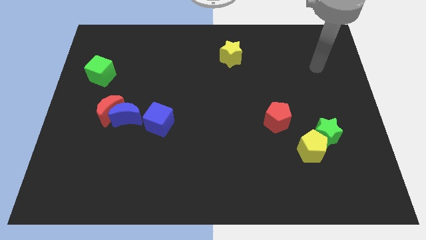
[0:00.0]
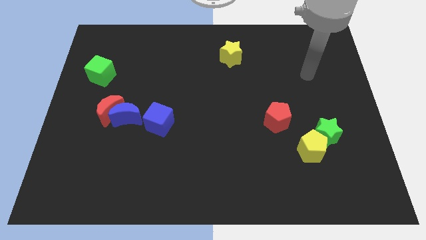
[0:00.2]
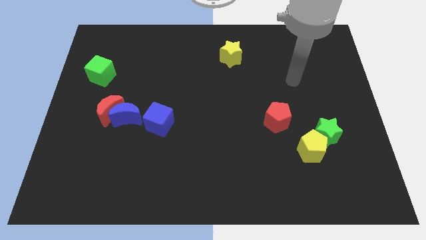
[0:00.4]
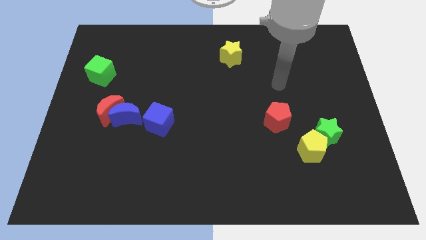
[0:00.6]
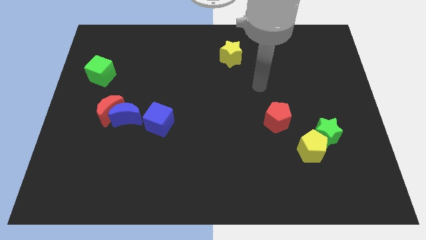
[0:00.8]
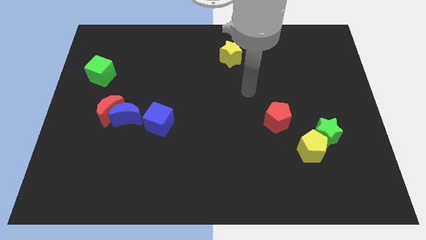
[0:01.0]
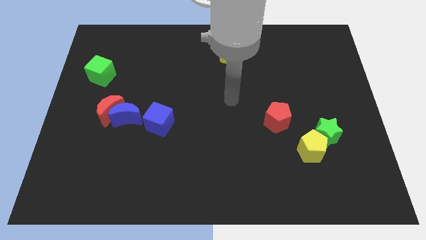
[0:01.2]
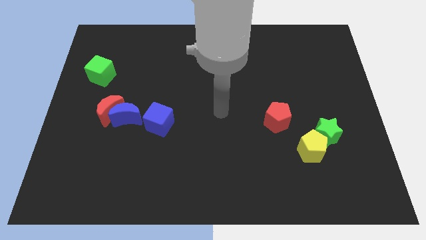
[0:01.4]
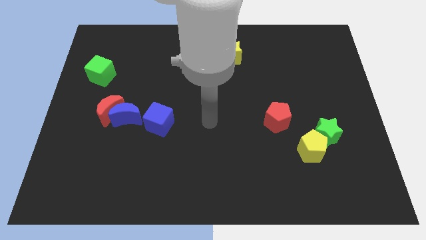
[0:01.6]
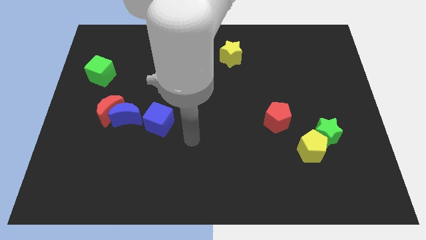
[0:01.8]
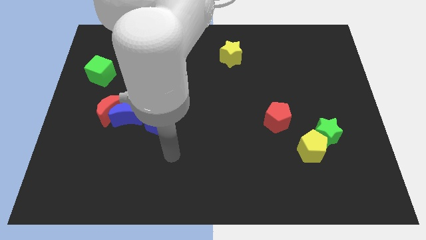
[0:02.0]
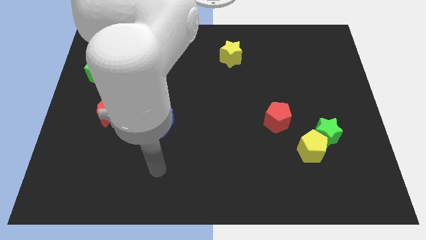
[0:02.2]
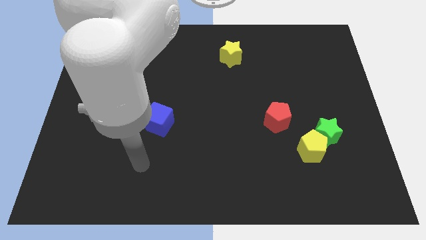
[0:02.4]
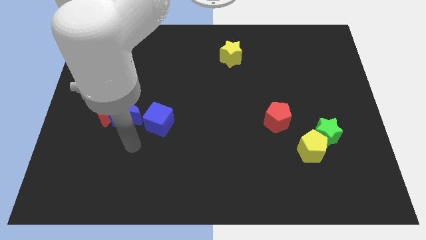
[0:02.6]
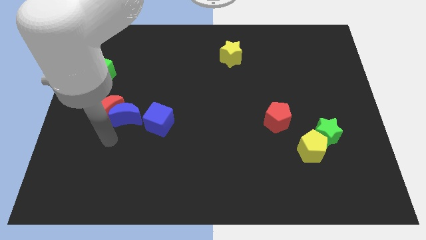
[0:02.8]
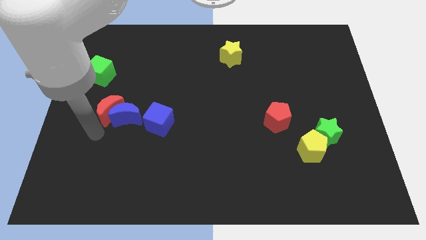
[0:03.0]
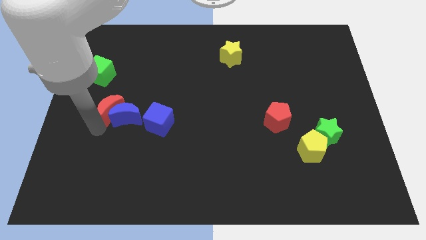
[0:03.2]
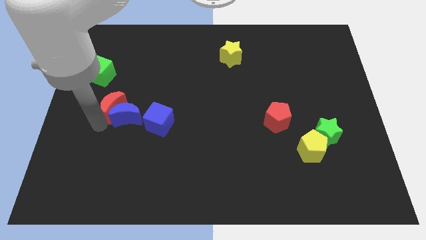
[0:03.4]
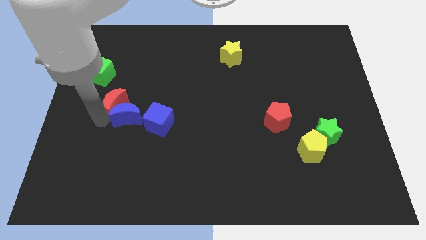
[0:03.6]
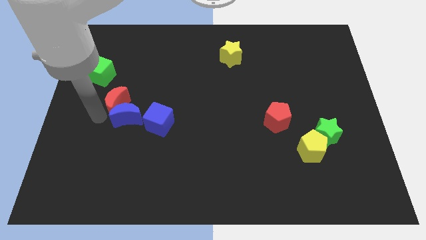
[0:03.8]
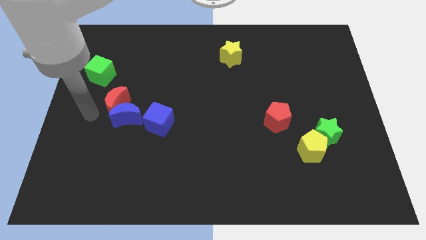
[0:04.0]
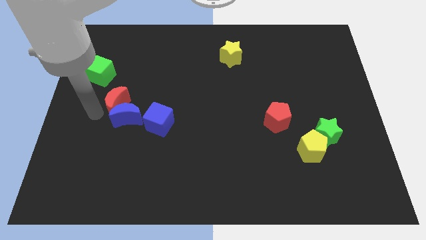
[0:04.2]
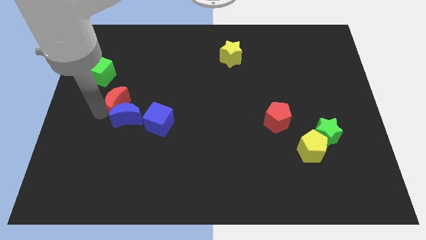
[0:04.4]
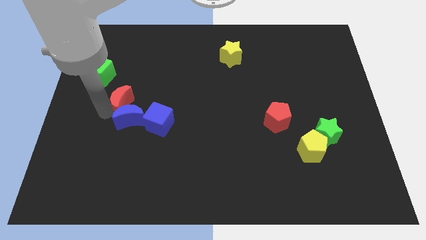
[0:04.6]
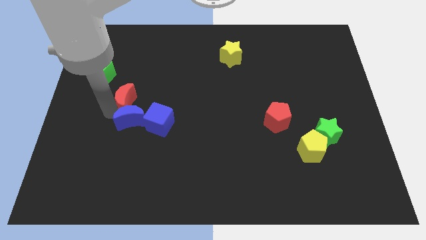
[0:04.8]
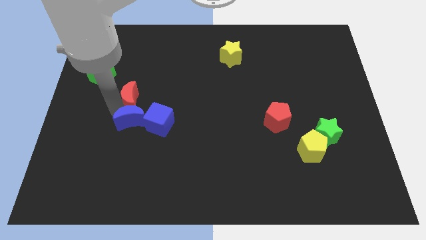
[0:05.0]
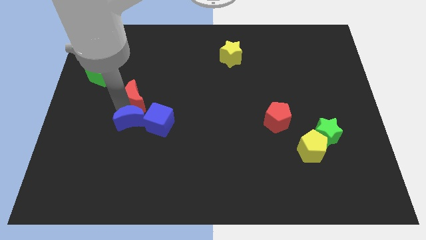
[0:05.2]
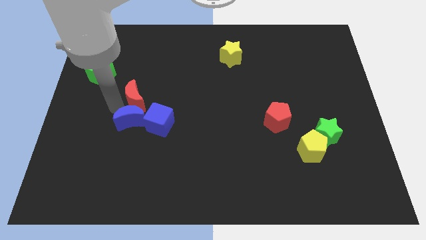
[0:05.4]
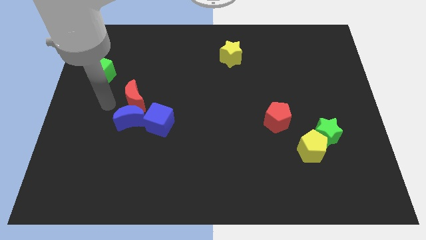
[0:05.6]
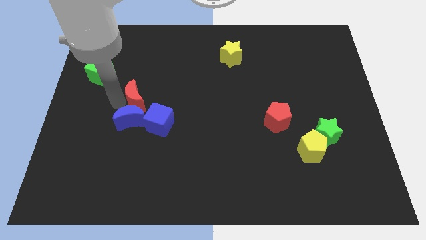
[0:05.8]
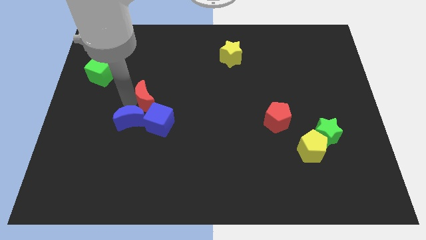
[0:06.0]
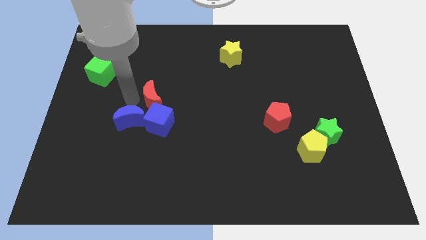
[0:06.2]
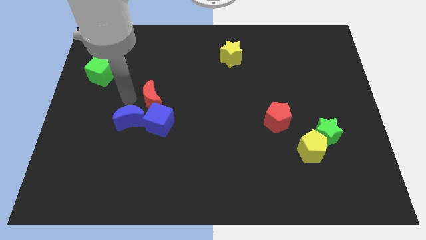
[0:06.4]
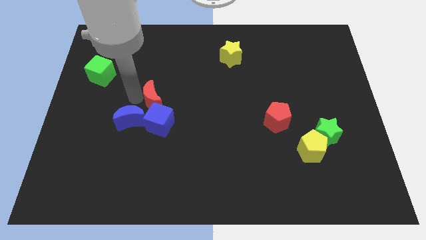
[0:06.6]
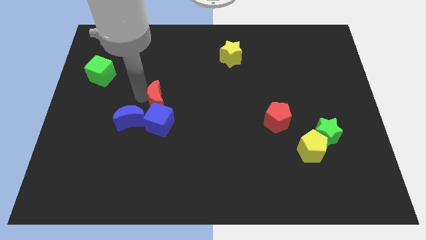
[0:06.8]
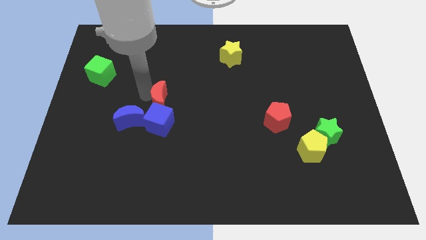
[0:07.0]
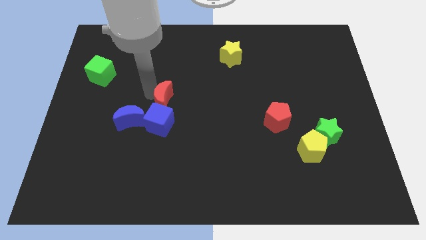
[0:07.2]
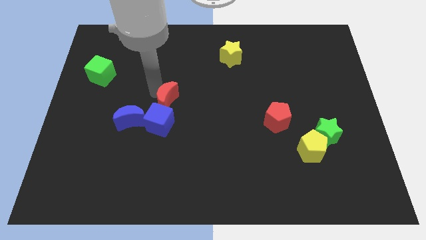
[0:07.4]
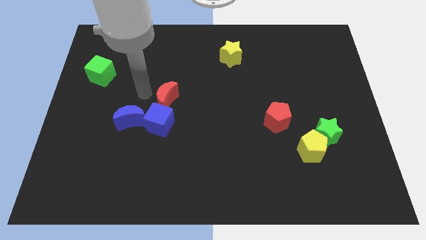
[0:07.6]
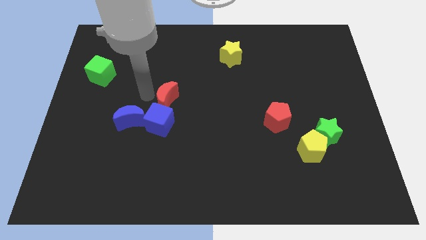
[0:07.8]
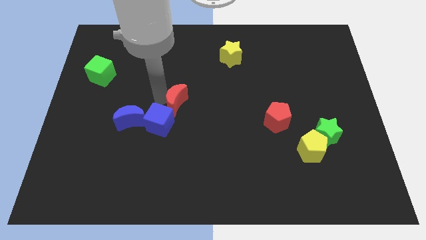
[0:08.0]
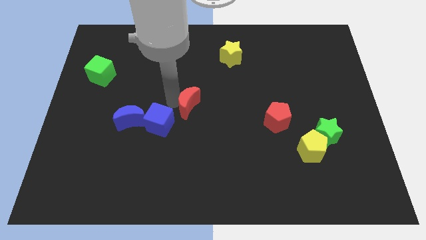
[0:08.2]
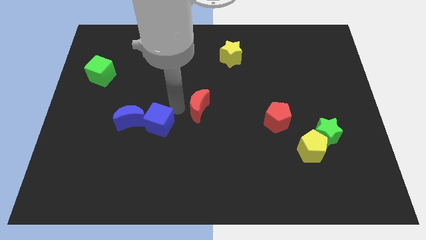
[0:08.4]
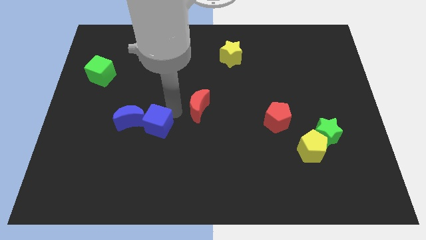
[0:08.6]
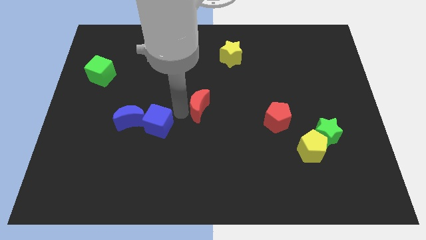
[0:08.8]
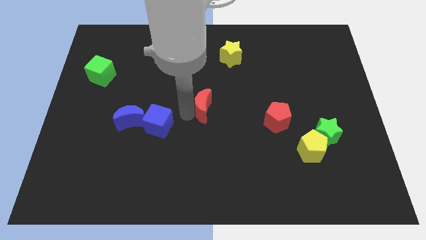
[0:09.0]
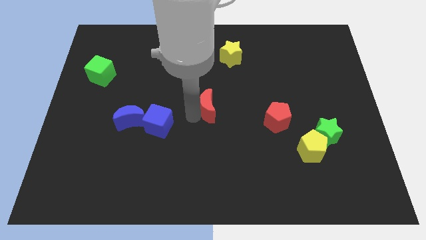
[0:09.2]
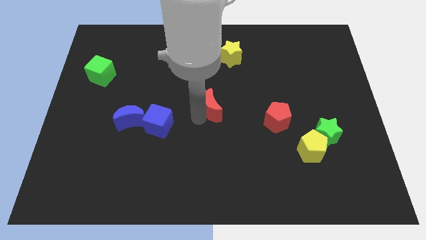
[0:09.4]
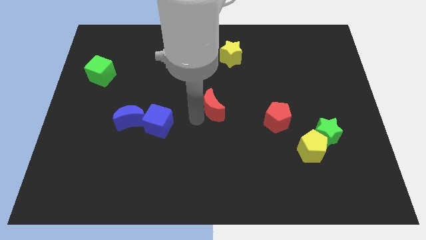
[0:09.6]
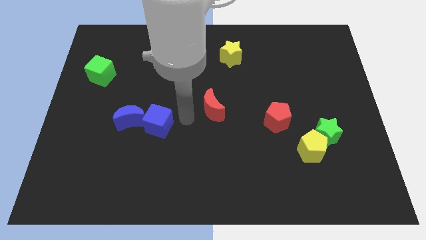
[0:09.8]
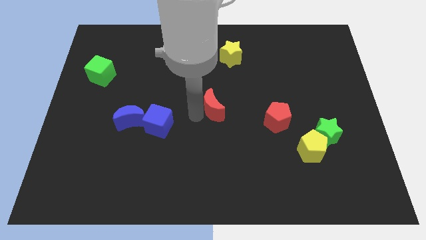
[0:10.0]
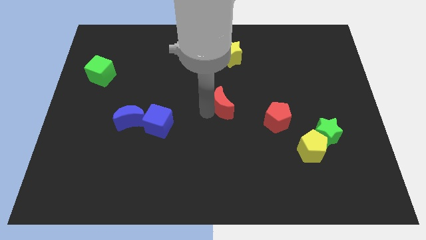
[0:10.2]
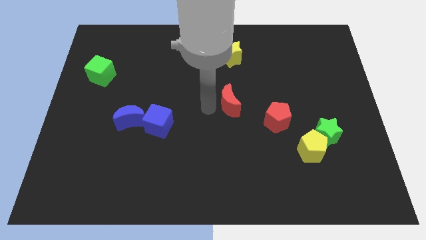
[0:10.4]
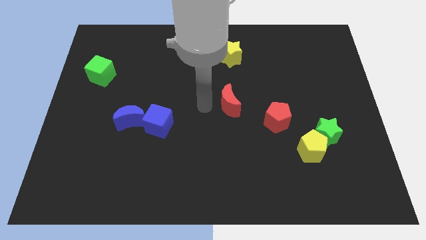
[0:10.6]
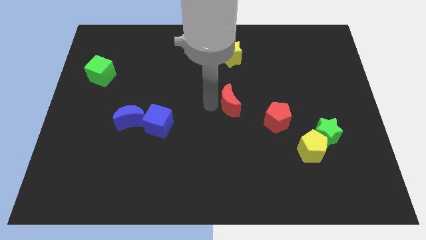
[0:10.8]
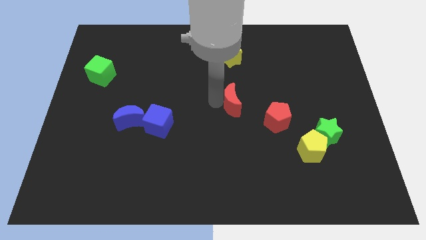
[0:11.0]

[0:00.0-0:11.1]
slide the red moon to the top left of the red pentagon

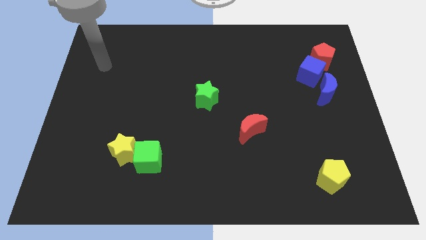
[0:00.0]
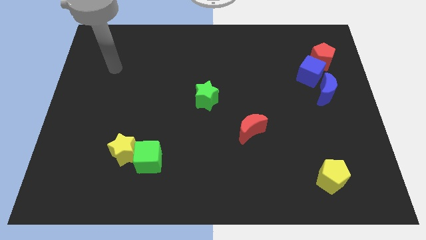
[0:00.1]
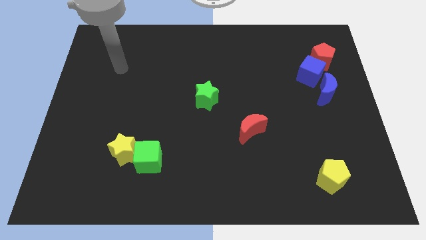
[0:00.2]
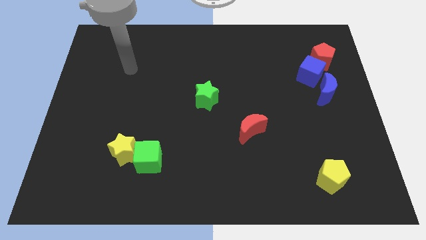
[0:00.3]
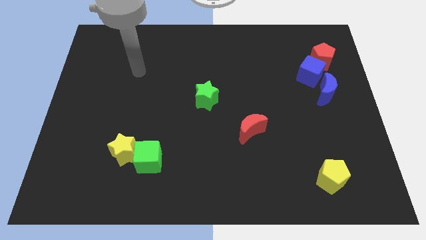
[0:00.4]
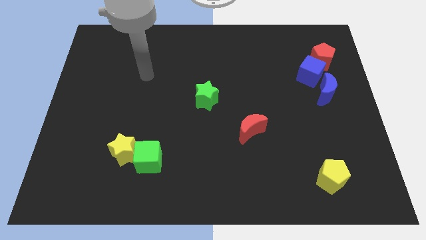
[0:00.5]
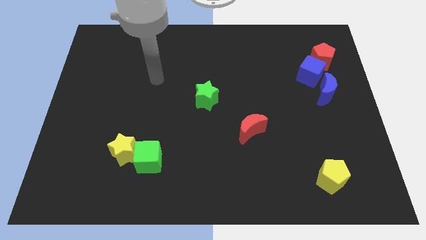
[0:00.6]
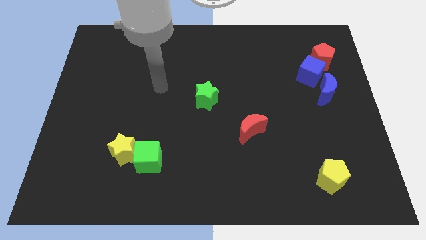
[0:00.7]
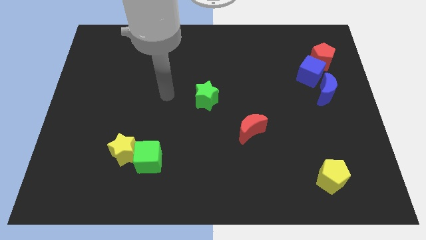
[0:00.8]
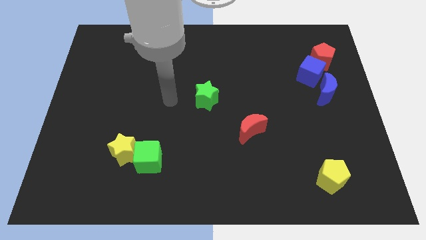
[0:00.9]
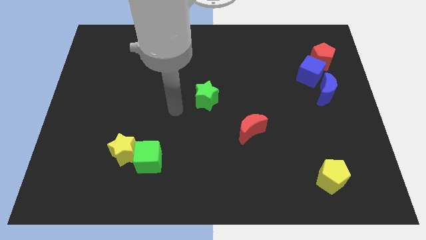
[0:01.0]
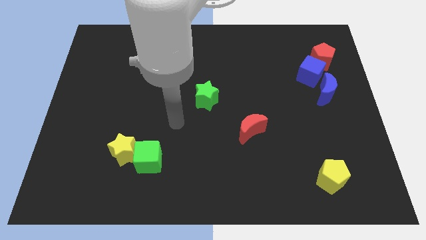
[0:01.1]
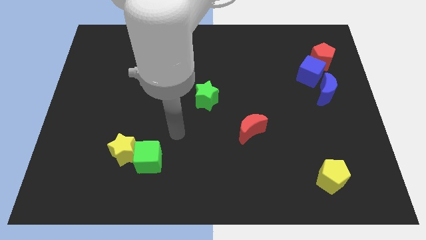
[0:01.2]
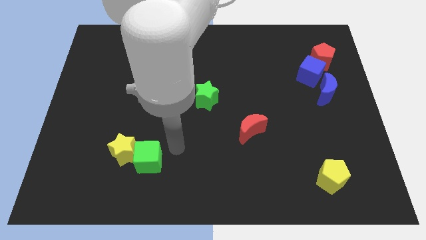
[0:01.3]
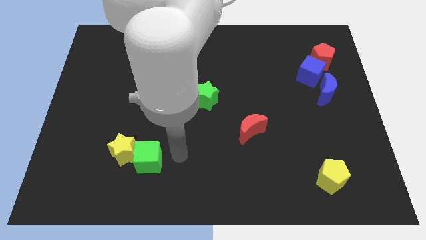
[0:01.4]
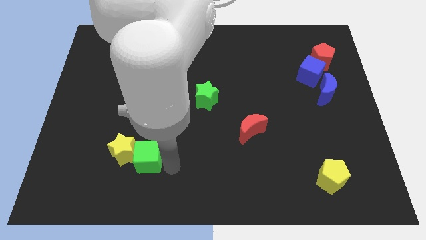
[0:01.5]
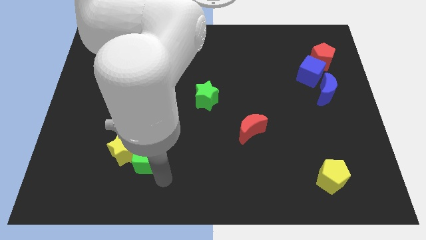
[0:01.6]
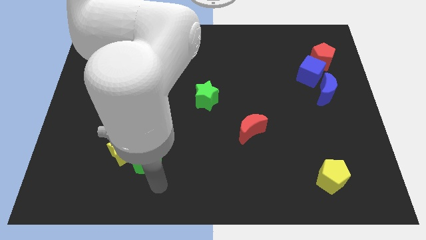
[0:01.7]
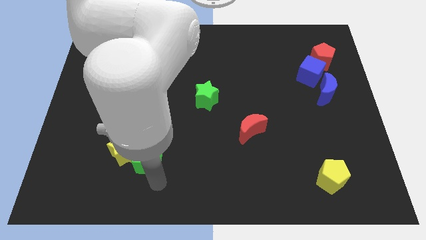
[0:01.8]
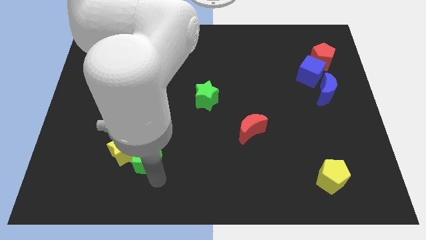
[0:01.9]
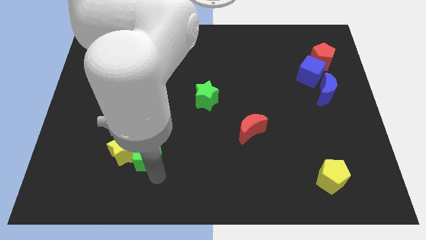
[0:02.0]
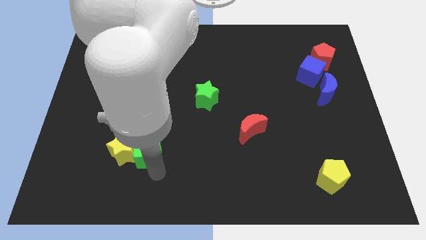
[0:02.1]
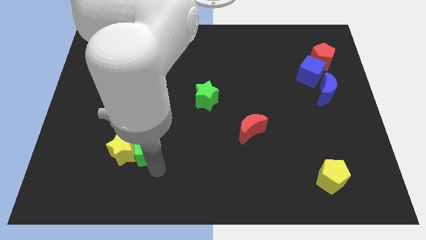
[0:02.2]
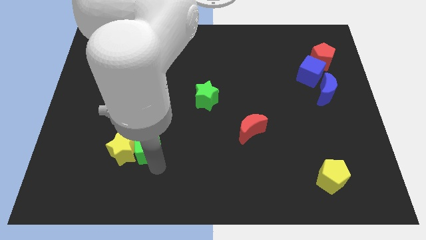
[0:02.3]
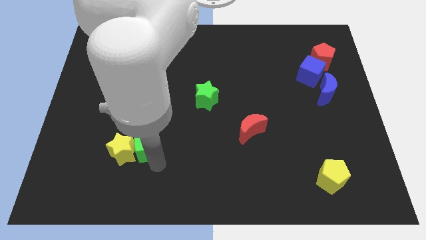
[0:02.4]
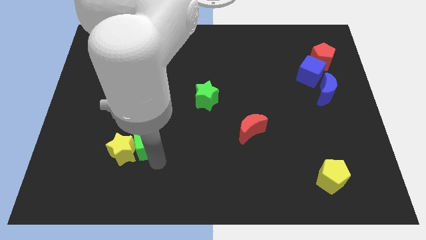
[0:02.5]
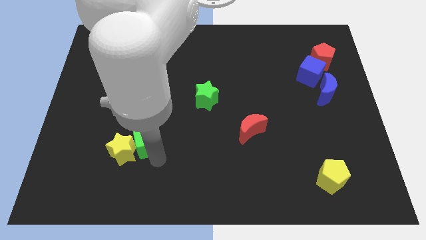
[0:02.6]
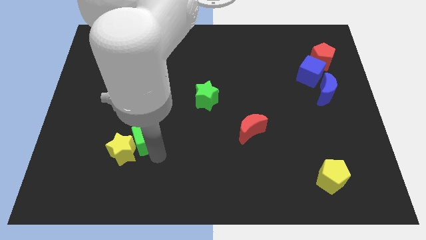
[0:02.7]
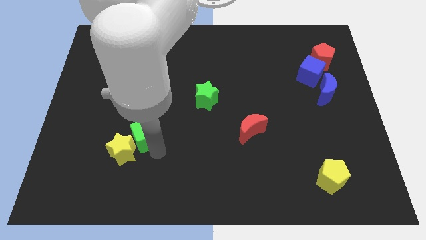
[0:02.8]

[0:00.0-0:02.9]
push the green cube above the yellow star
